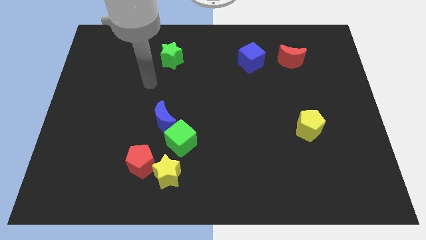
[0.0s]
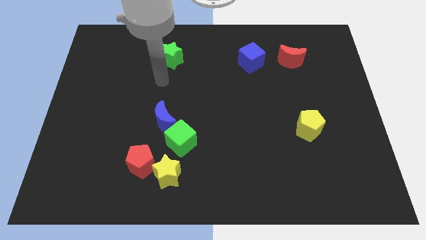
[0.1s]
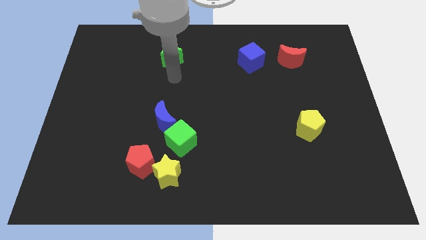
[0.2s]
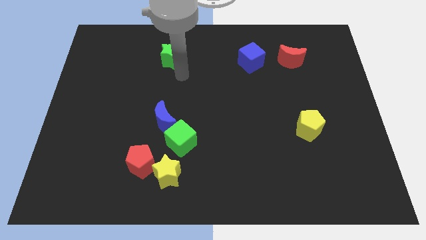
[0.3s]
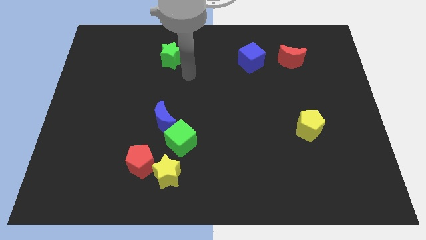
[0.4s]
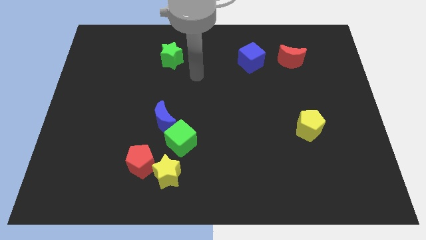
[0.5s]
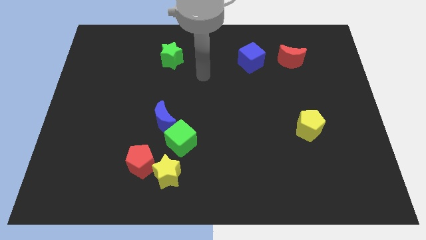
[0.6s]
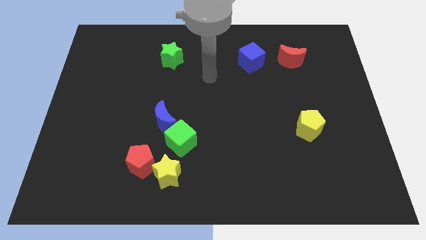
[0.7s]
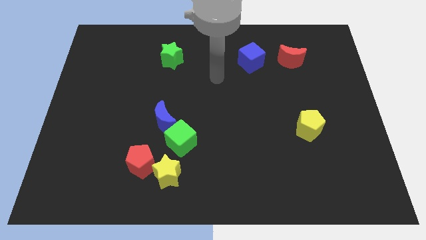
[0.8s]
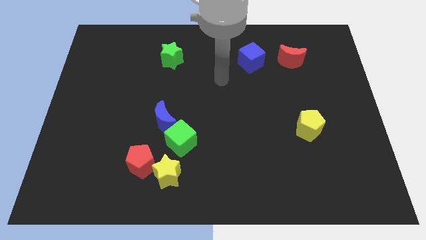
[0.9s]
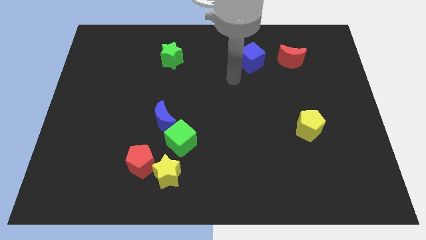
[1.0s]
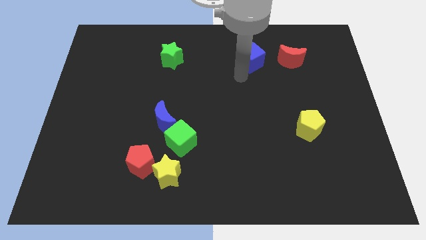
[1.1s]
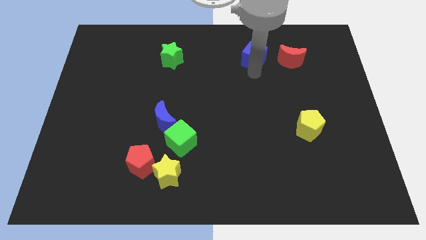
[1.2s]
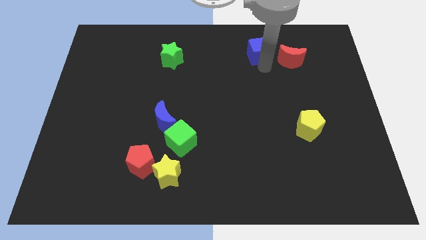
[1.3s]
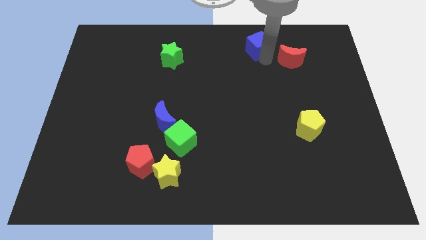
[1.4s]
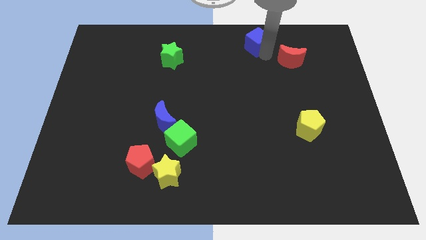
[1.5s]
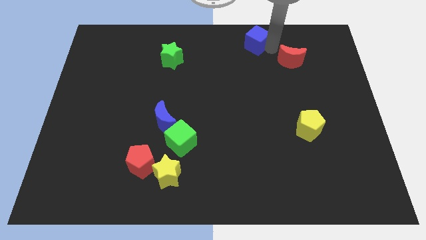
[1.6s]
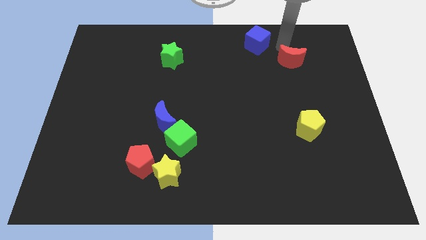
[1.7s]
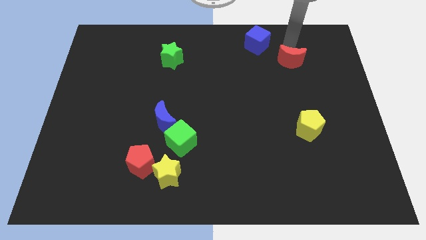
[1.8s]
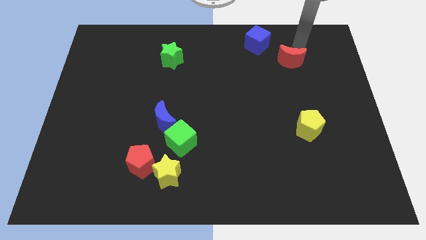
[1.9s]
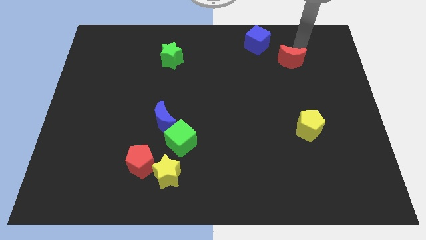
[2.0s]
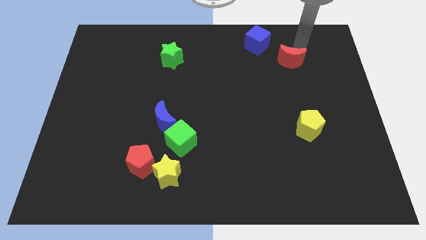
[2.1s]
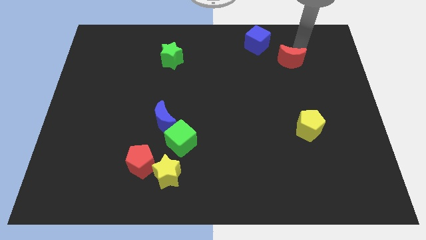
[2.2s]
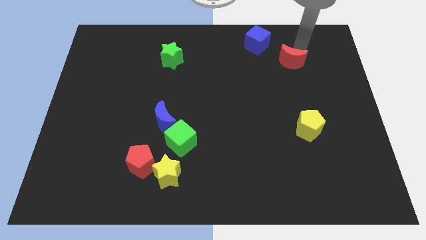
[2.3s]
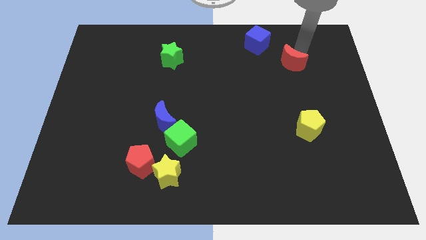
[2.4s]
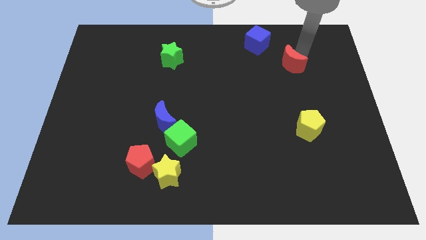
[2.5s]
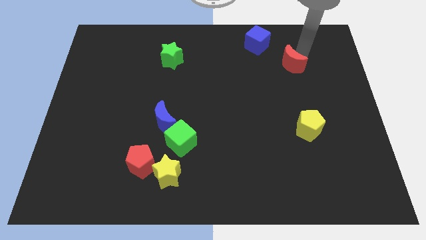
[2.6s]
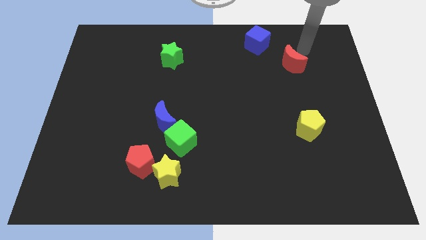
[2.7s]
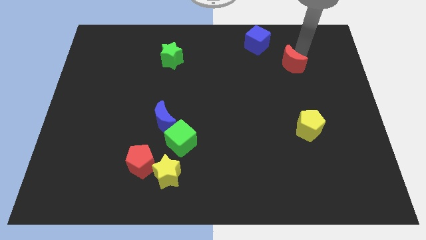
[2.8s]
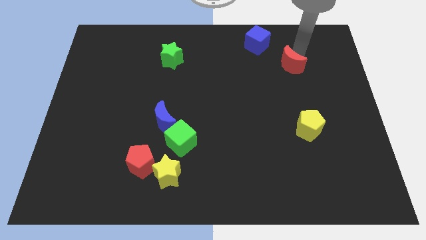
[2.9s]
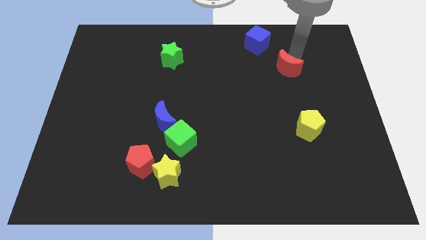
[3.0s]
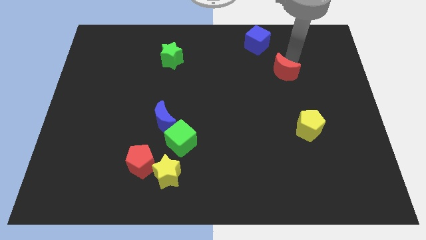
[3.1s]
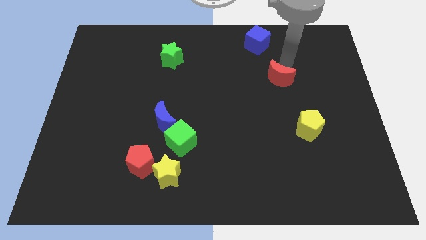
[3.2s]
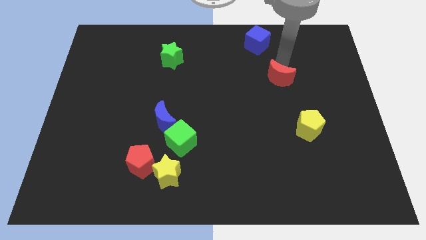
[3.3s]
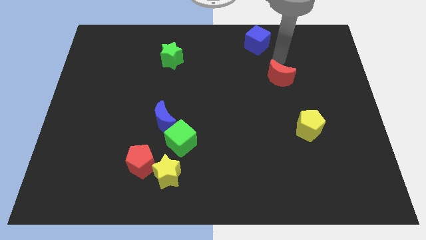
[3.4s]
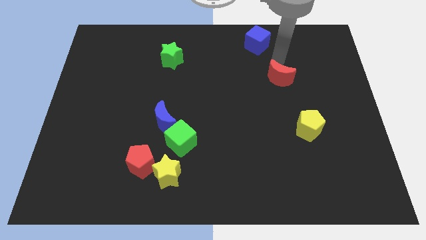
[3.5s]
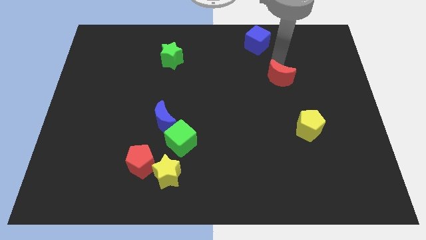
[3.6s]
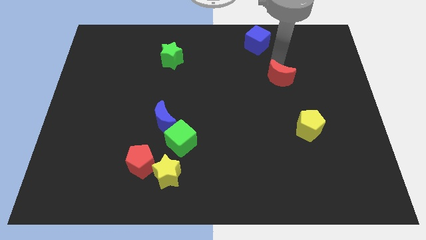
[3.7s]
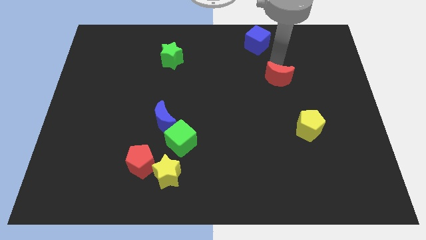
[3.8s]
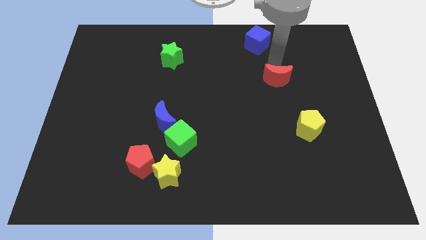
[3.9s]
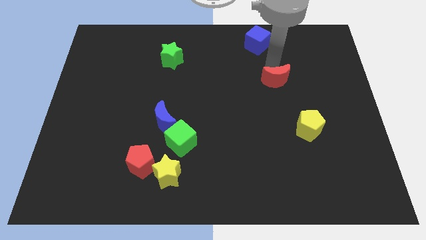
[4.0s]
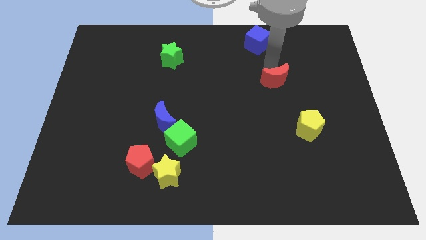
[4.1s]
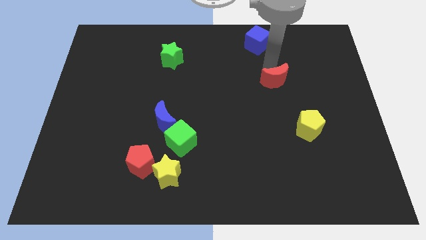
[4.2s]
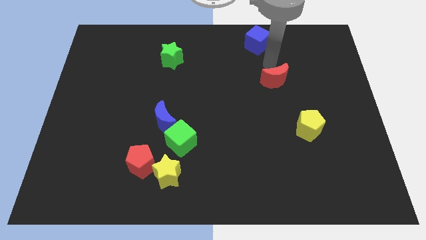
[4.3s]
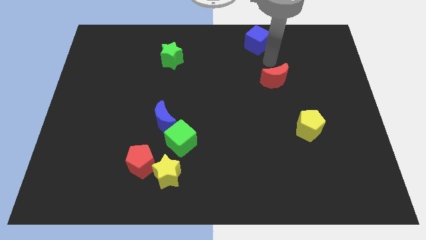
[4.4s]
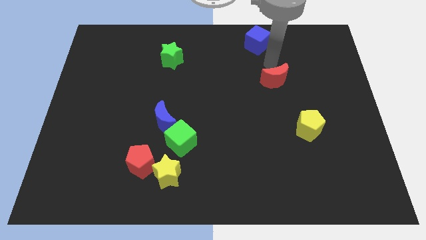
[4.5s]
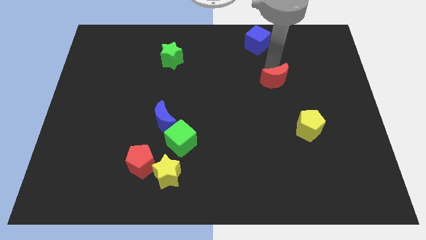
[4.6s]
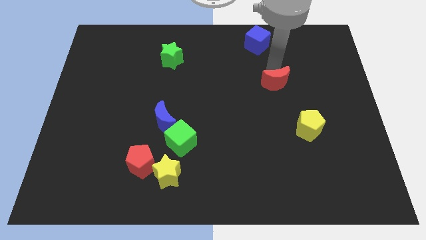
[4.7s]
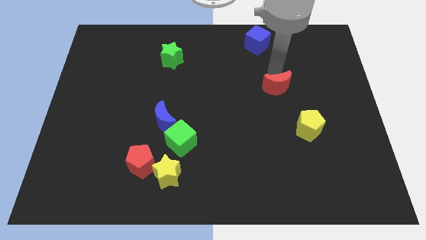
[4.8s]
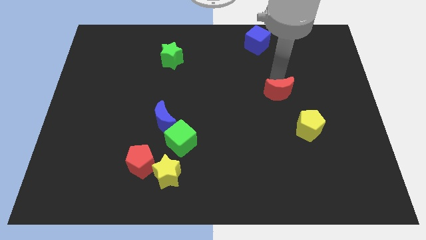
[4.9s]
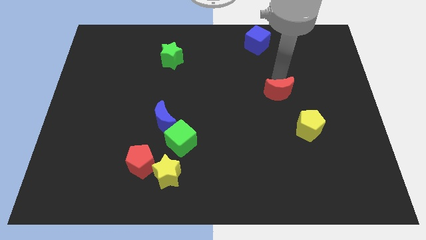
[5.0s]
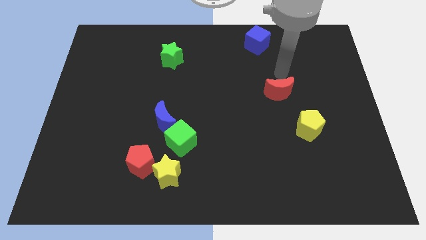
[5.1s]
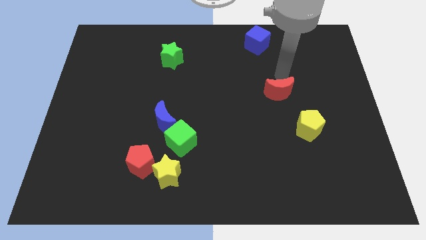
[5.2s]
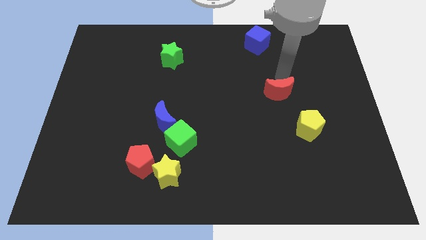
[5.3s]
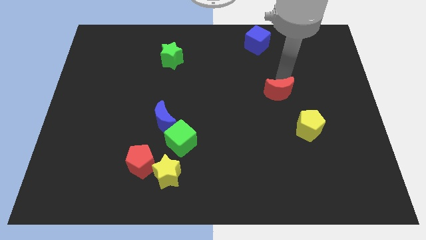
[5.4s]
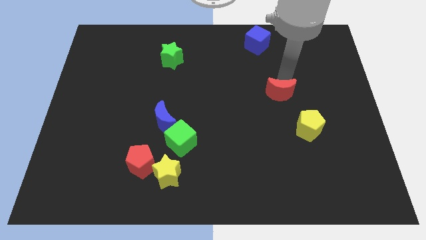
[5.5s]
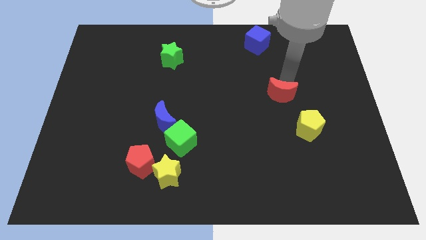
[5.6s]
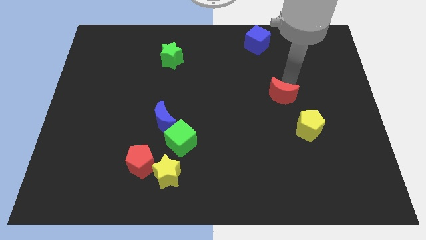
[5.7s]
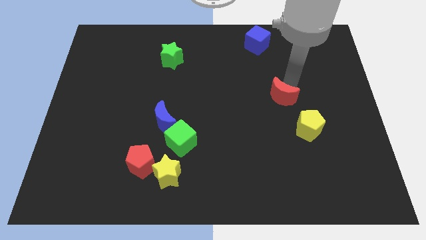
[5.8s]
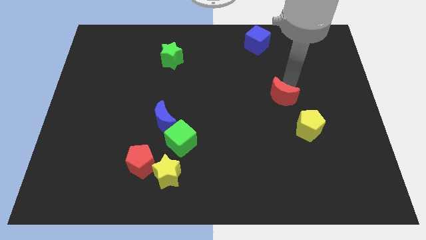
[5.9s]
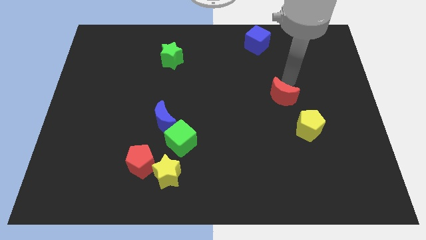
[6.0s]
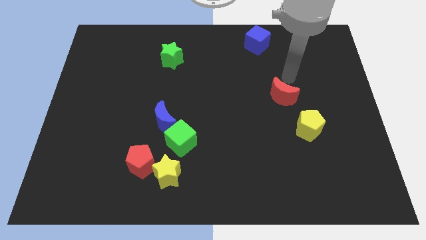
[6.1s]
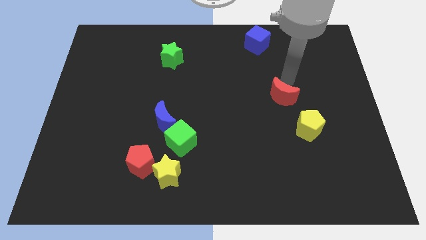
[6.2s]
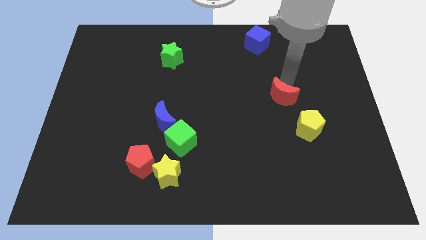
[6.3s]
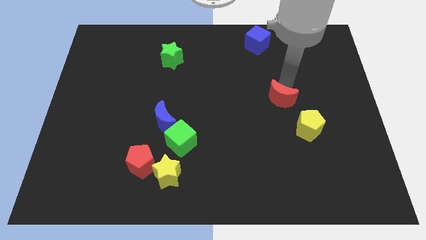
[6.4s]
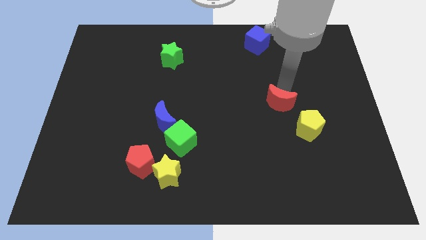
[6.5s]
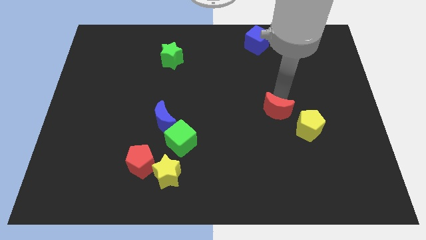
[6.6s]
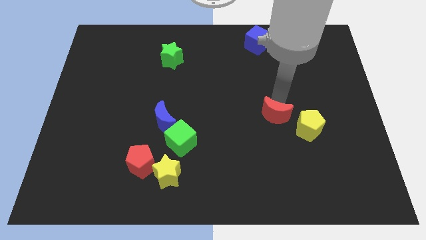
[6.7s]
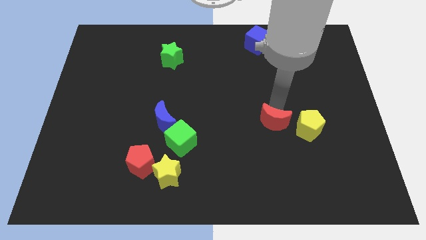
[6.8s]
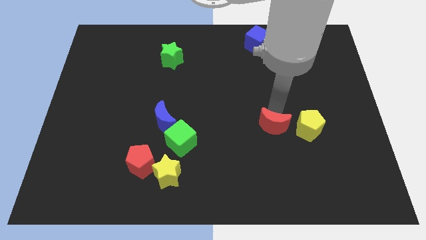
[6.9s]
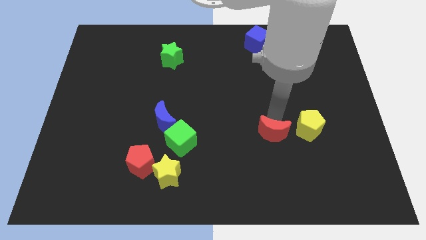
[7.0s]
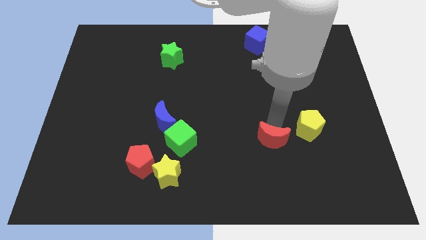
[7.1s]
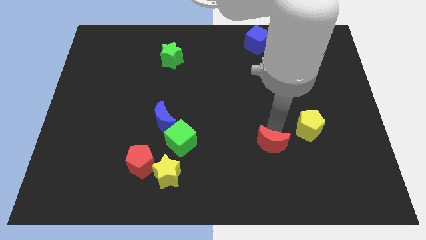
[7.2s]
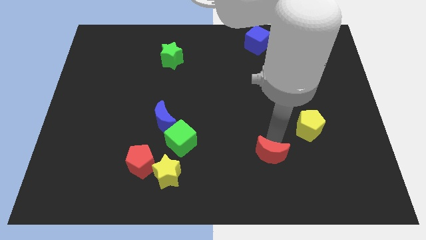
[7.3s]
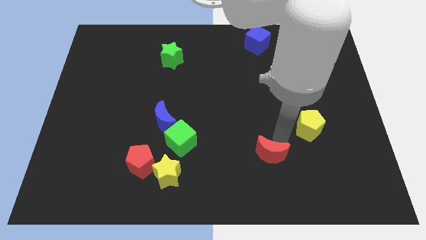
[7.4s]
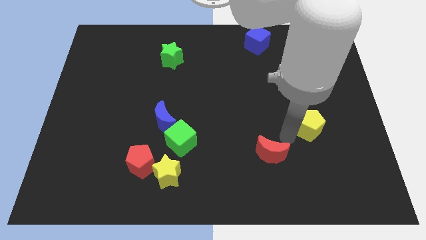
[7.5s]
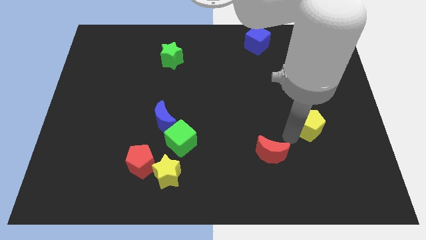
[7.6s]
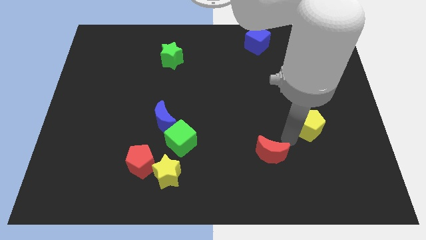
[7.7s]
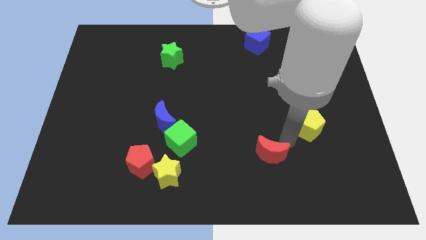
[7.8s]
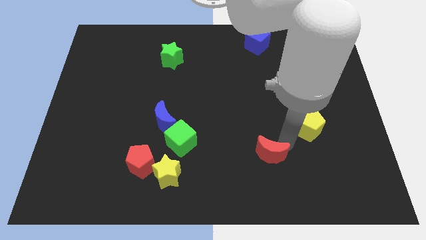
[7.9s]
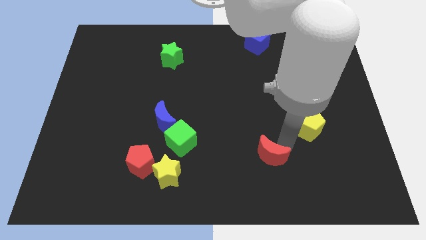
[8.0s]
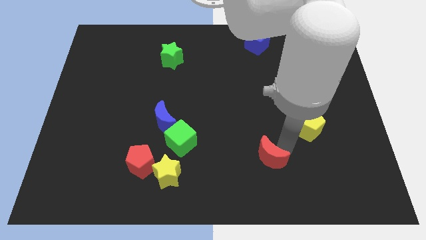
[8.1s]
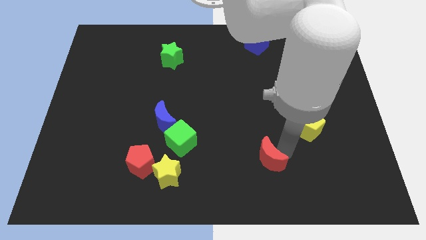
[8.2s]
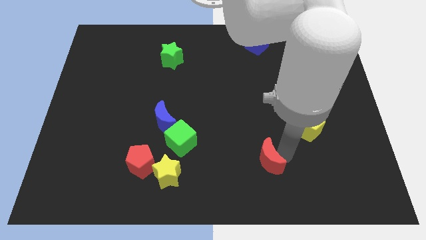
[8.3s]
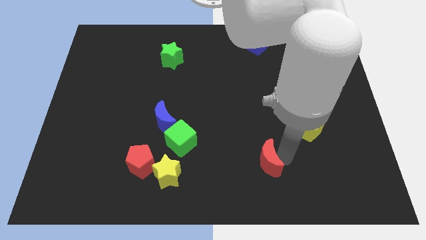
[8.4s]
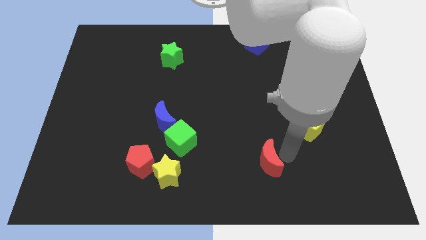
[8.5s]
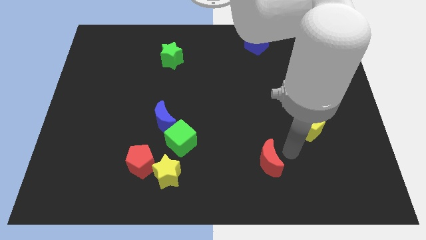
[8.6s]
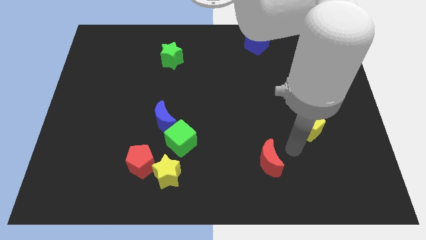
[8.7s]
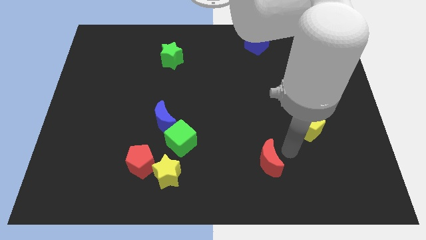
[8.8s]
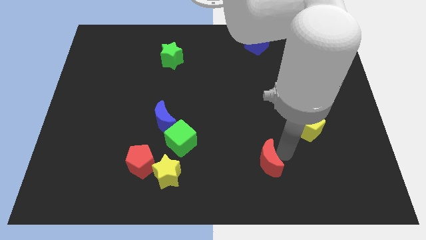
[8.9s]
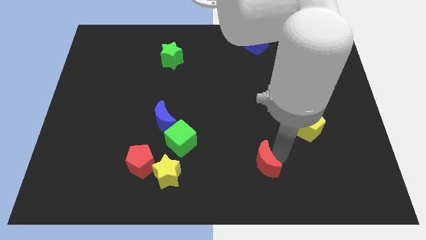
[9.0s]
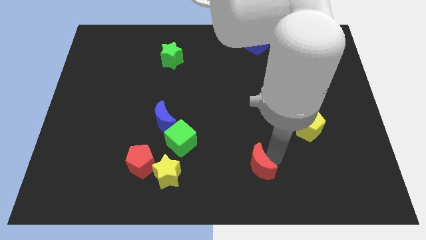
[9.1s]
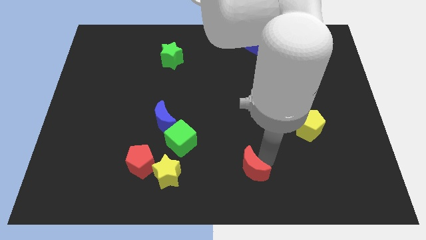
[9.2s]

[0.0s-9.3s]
slide the red moon to the bottom
